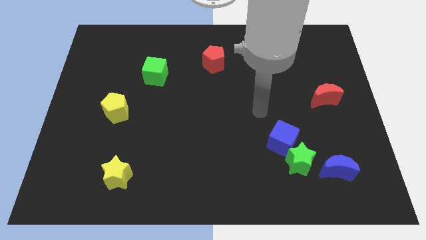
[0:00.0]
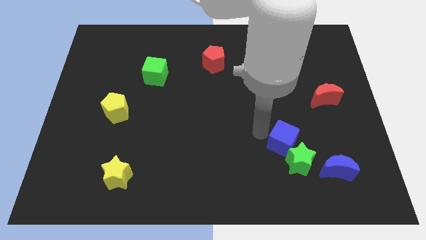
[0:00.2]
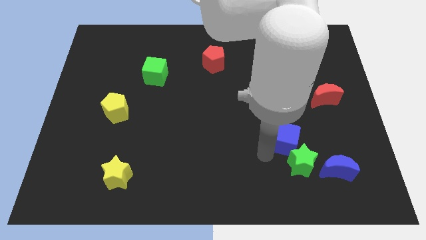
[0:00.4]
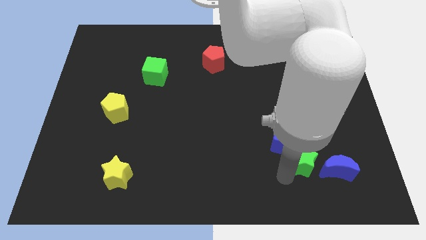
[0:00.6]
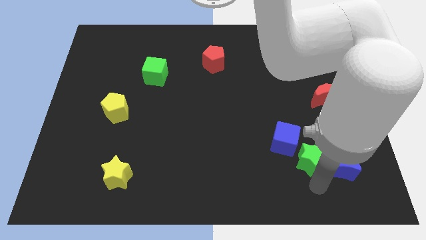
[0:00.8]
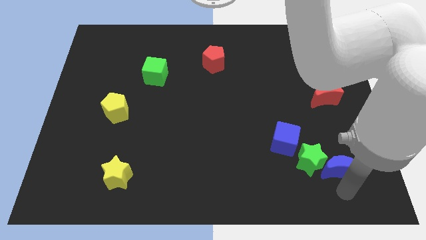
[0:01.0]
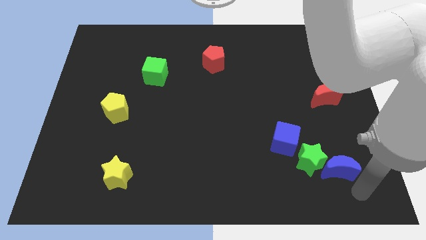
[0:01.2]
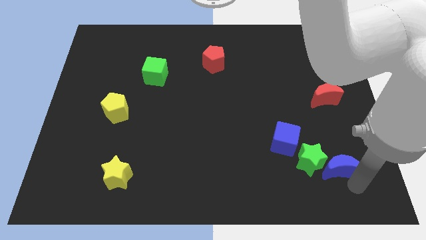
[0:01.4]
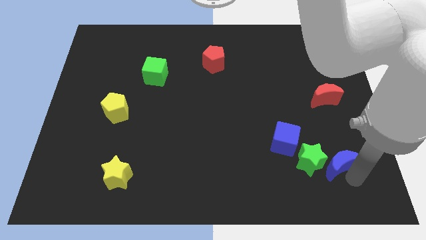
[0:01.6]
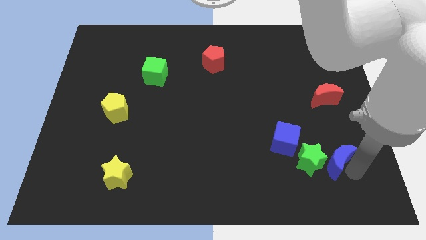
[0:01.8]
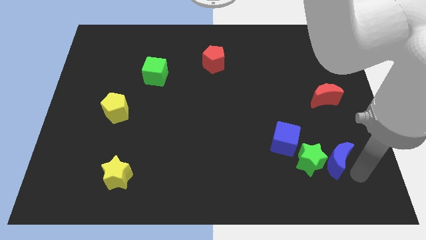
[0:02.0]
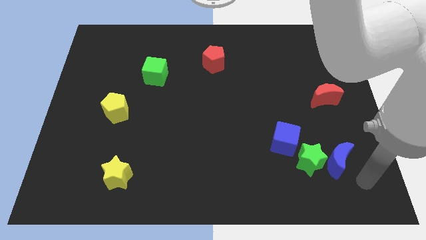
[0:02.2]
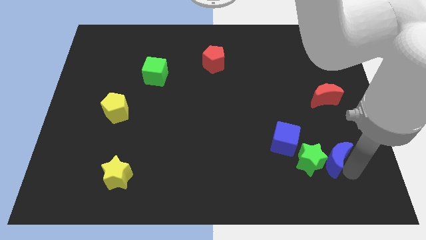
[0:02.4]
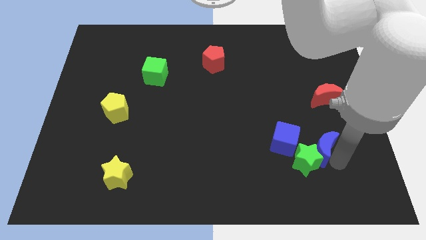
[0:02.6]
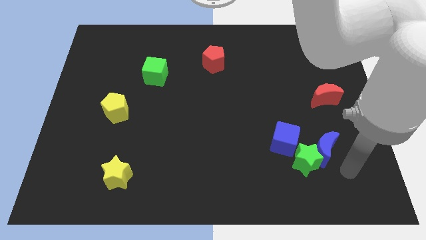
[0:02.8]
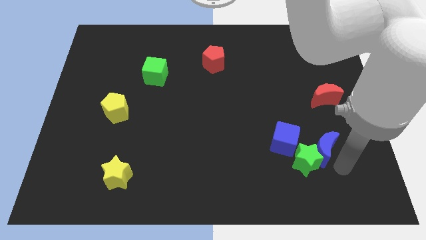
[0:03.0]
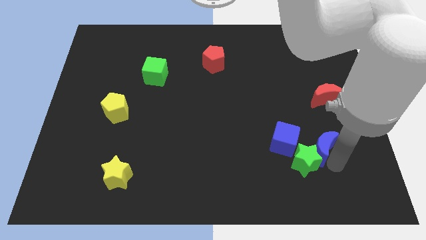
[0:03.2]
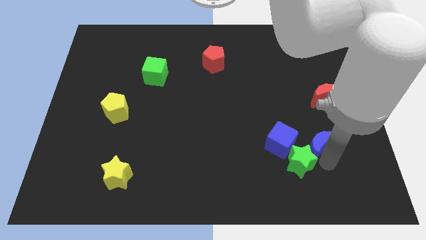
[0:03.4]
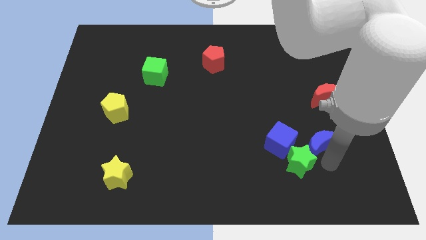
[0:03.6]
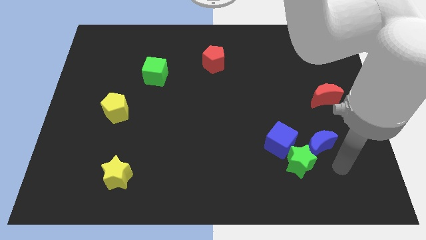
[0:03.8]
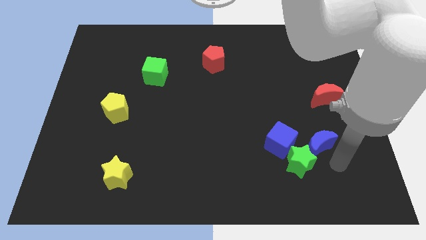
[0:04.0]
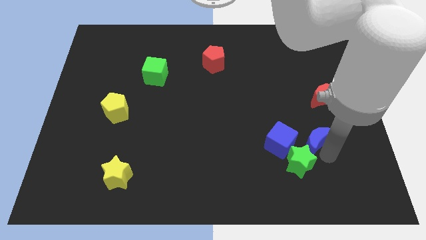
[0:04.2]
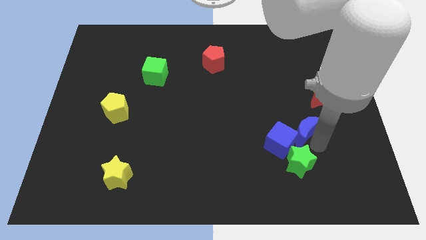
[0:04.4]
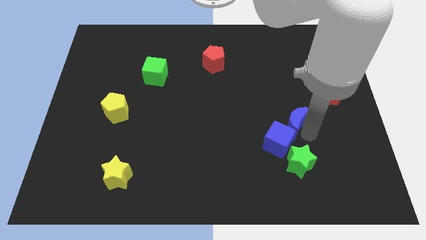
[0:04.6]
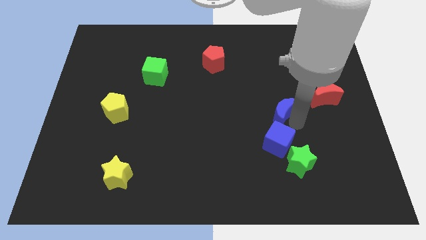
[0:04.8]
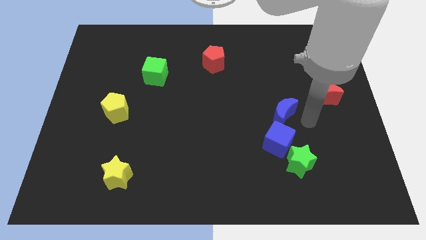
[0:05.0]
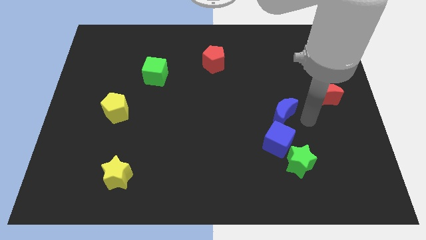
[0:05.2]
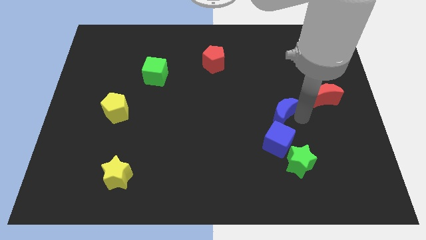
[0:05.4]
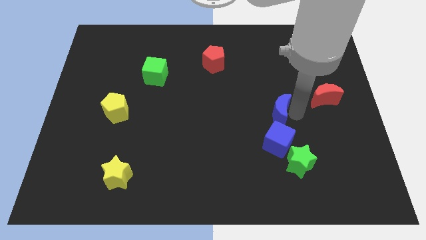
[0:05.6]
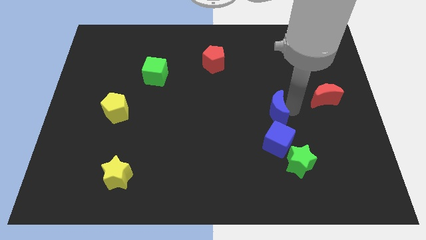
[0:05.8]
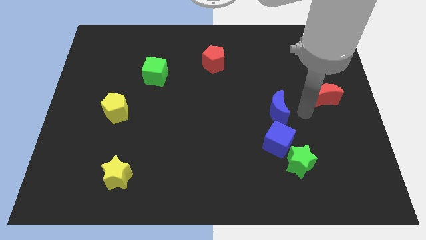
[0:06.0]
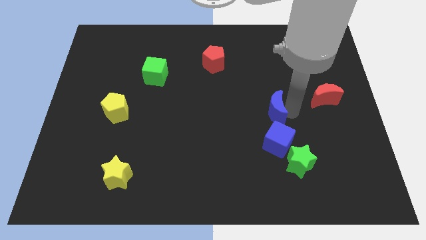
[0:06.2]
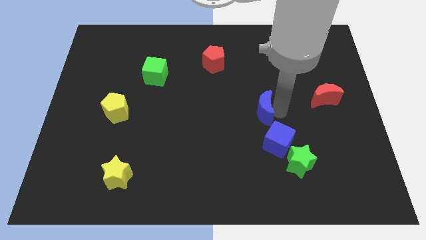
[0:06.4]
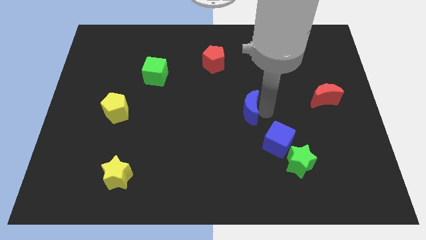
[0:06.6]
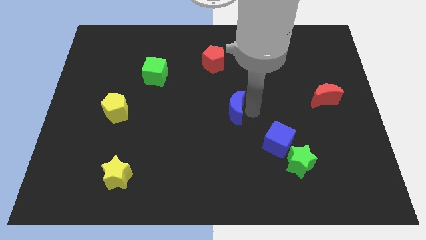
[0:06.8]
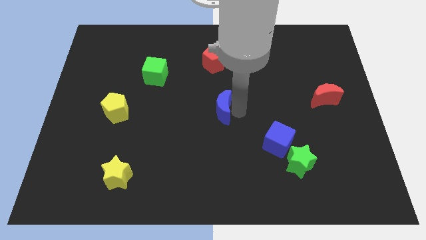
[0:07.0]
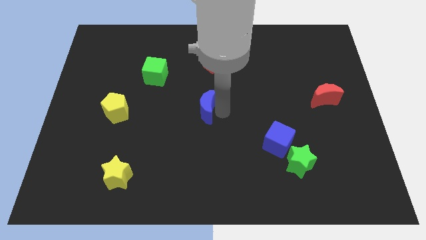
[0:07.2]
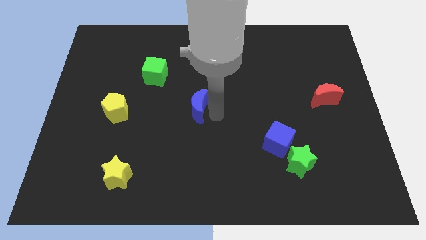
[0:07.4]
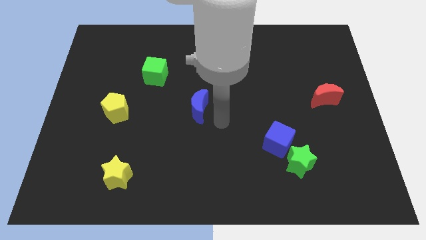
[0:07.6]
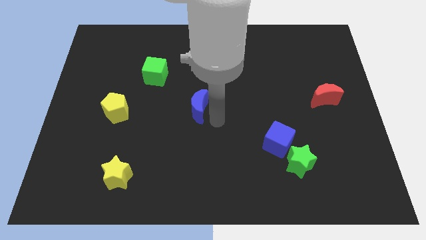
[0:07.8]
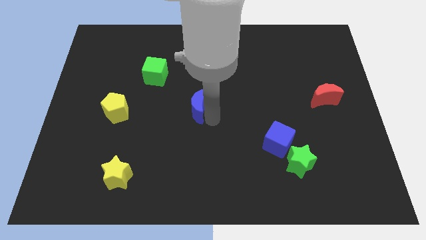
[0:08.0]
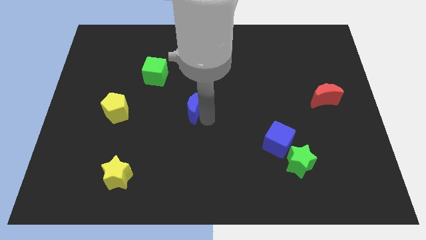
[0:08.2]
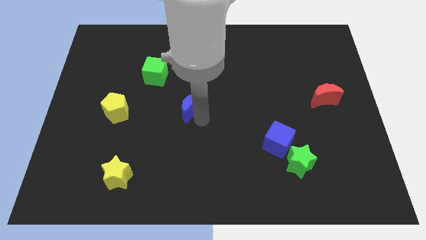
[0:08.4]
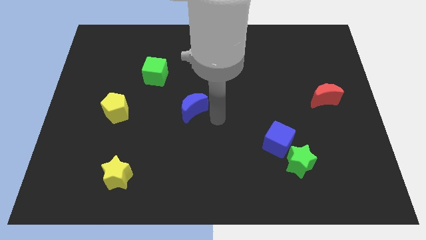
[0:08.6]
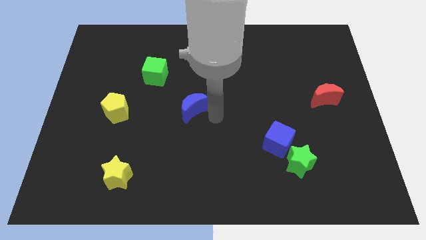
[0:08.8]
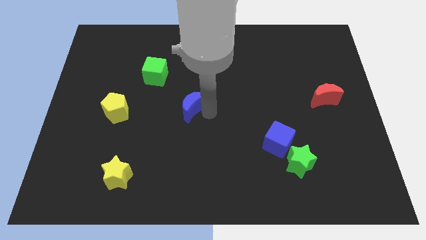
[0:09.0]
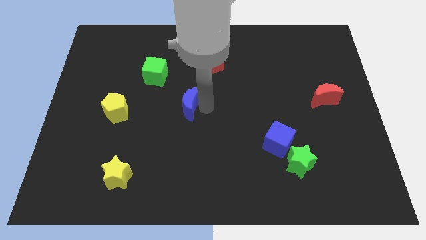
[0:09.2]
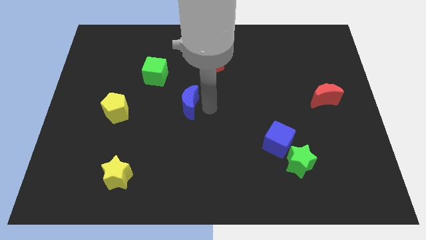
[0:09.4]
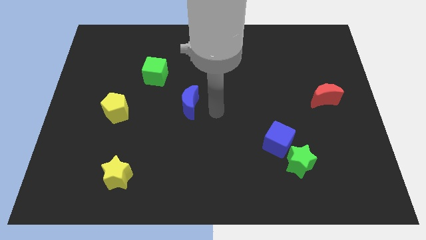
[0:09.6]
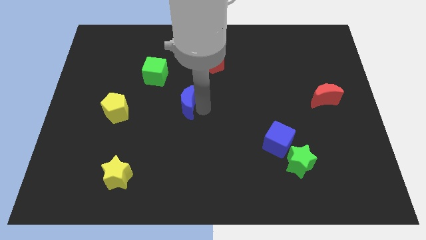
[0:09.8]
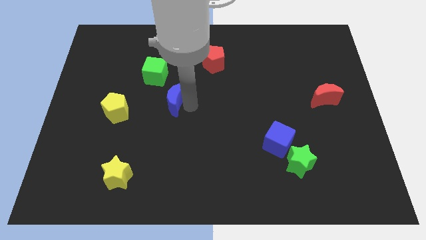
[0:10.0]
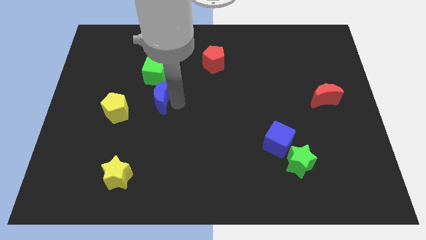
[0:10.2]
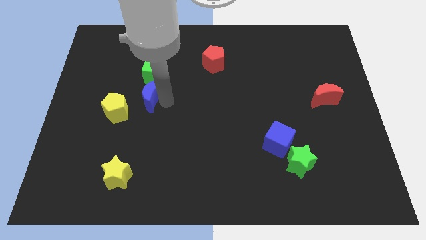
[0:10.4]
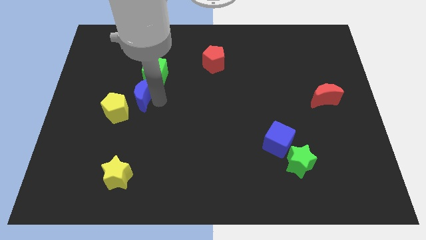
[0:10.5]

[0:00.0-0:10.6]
put the blue moon diagonally down and to the left of the green cube
